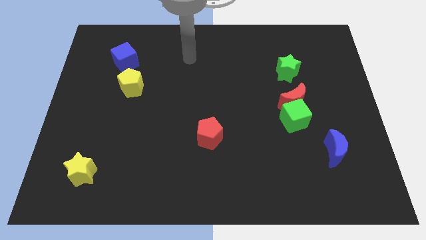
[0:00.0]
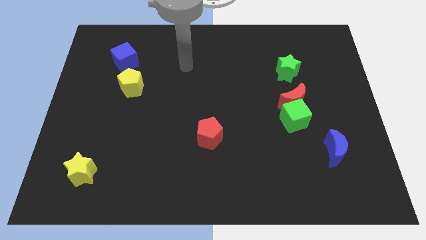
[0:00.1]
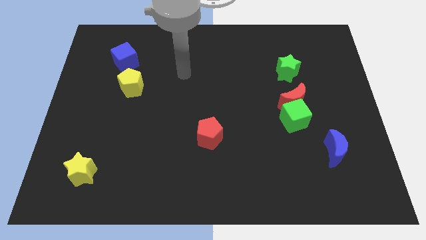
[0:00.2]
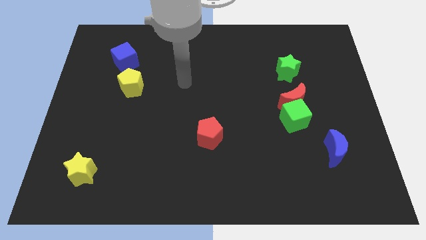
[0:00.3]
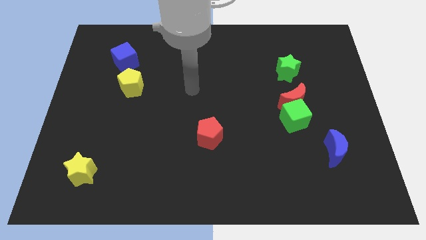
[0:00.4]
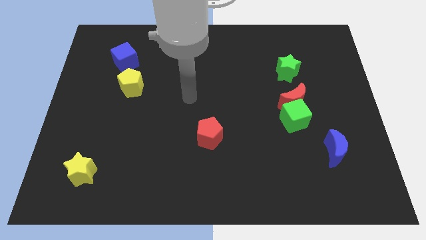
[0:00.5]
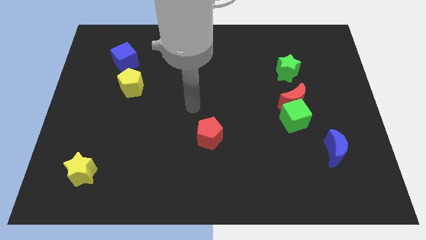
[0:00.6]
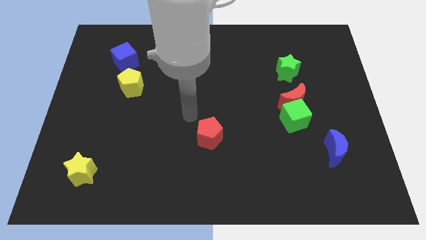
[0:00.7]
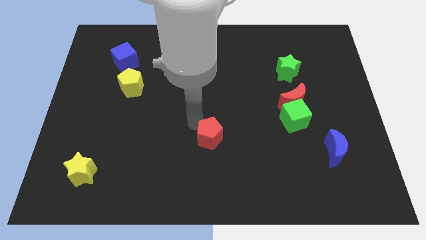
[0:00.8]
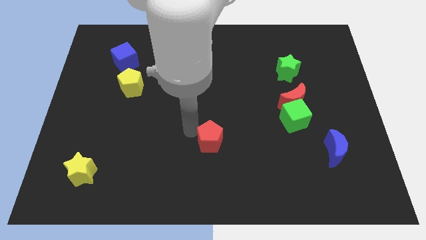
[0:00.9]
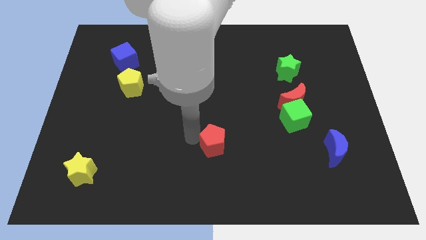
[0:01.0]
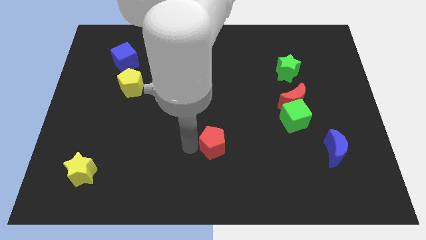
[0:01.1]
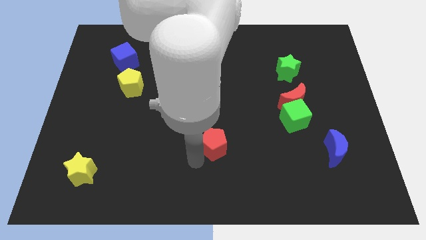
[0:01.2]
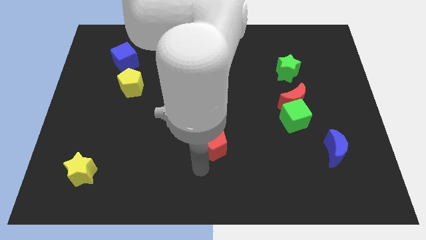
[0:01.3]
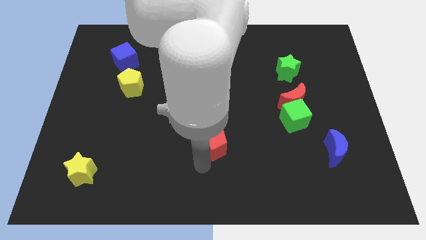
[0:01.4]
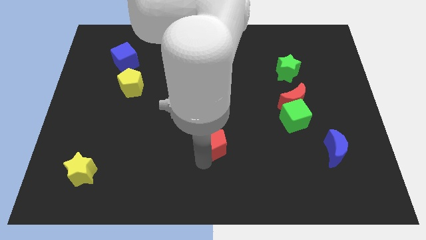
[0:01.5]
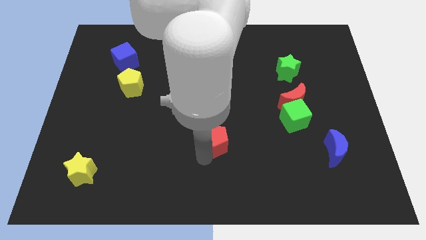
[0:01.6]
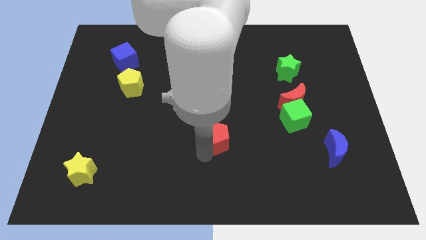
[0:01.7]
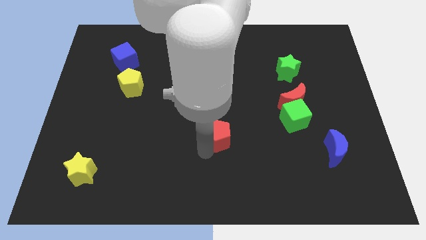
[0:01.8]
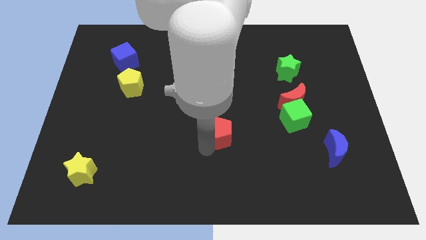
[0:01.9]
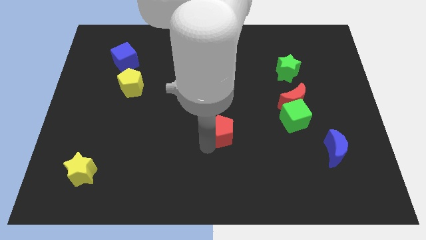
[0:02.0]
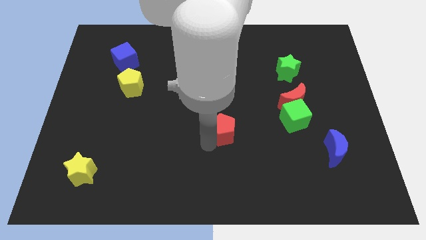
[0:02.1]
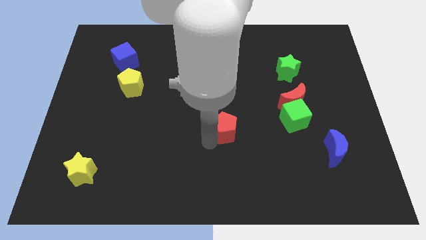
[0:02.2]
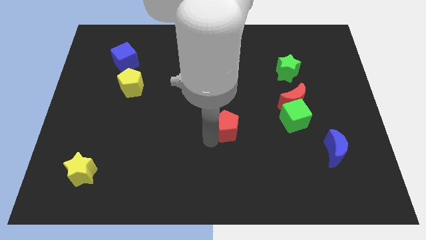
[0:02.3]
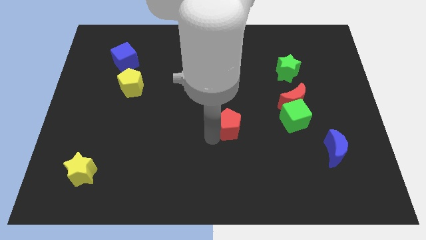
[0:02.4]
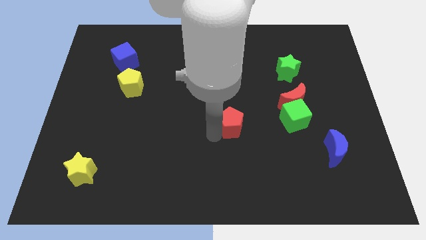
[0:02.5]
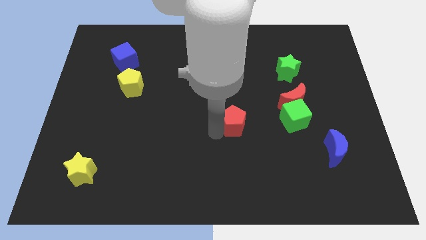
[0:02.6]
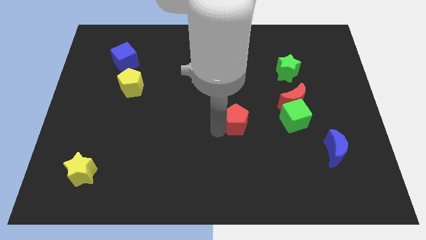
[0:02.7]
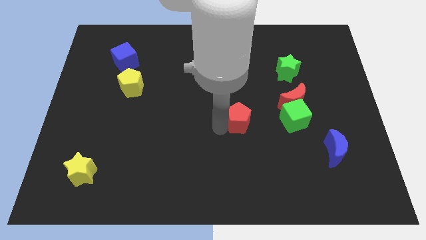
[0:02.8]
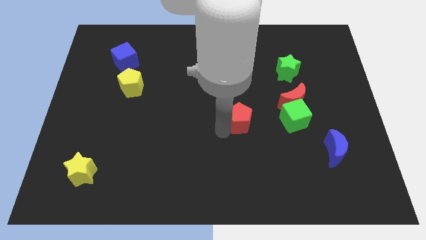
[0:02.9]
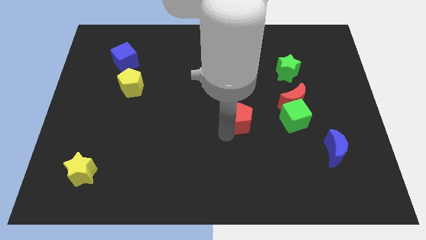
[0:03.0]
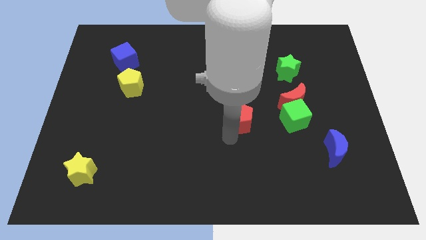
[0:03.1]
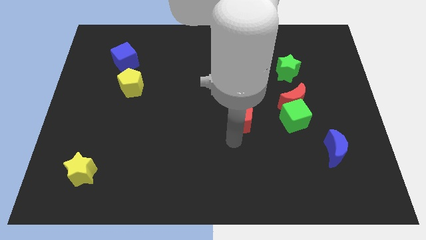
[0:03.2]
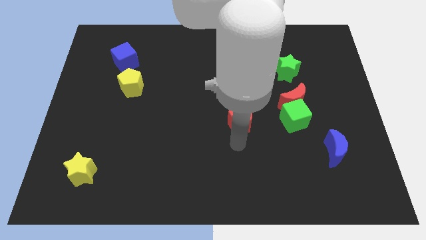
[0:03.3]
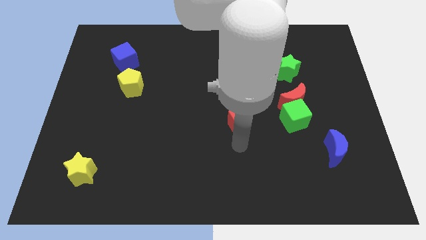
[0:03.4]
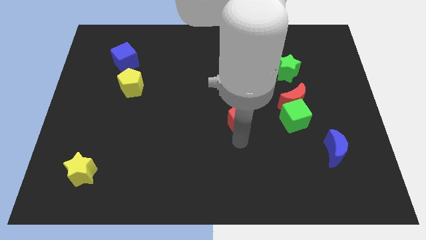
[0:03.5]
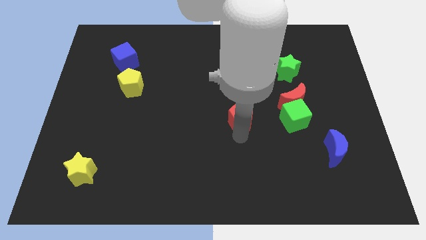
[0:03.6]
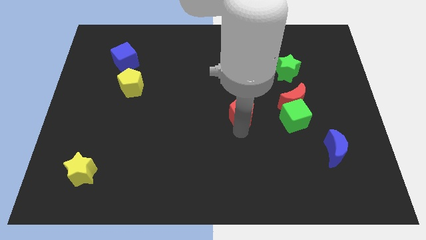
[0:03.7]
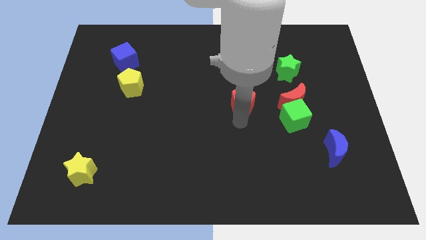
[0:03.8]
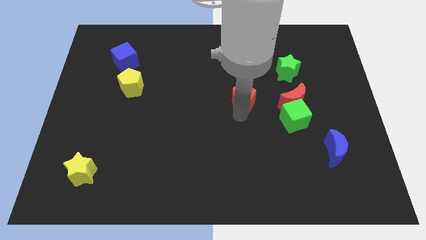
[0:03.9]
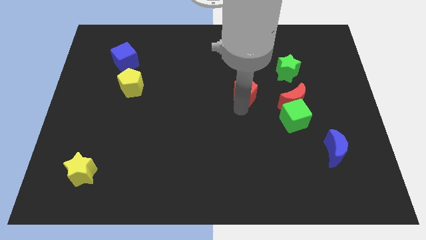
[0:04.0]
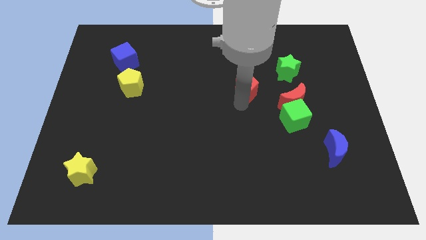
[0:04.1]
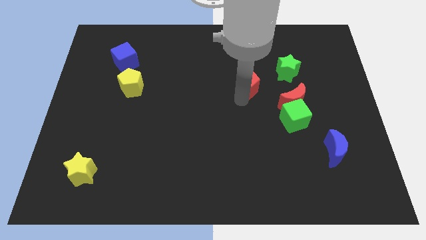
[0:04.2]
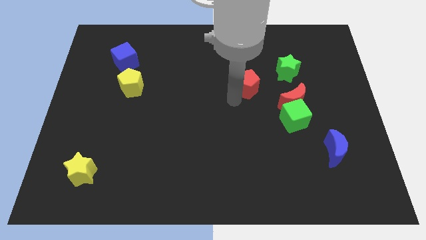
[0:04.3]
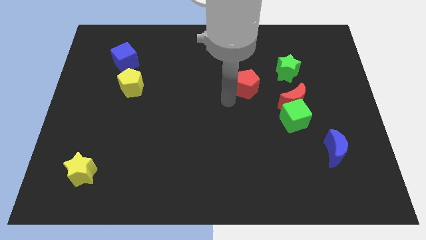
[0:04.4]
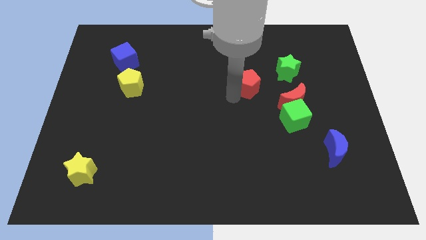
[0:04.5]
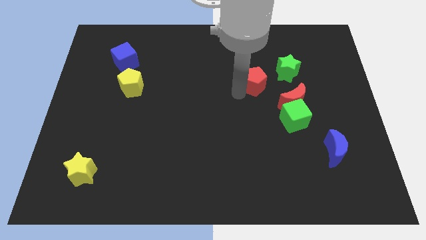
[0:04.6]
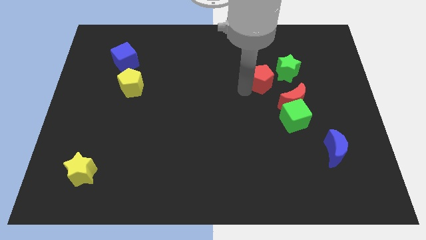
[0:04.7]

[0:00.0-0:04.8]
slide the red pentagon diagonally up and right

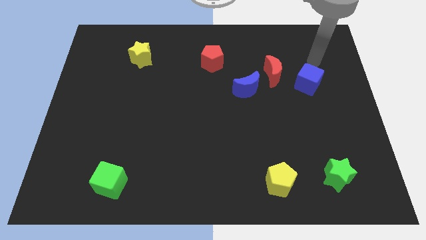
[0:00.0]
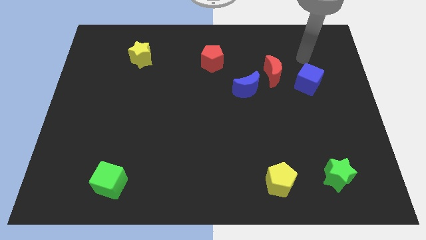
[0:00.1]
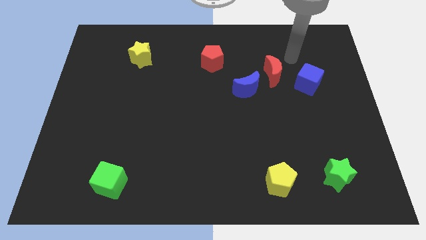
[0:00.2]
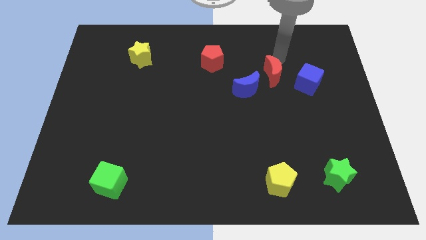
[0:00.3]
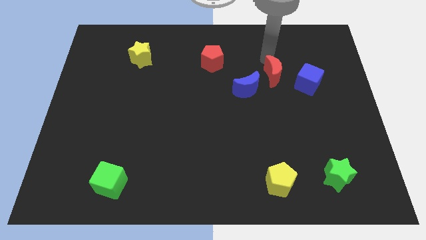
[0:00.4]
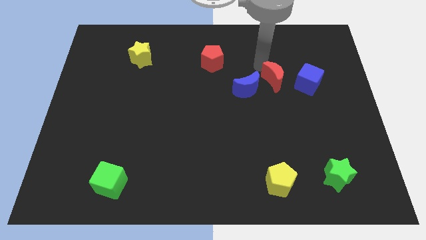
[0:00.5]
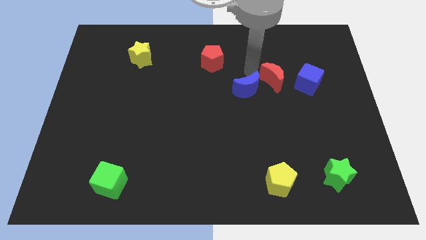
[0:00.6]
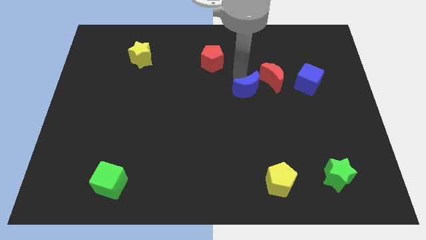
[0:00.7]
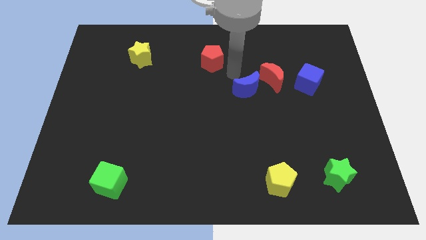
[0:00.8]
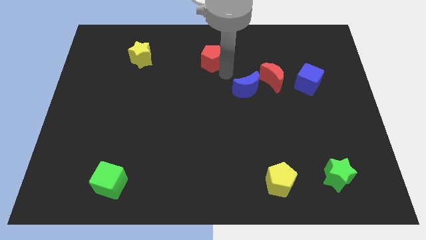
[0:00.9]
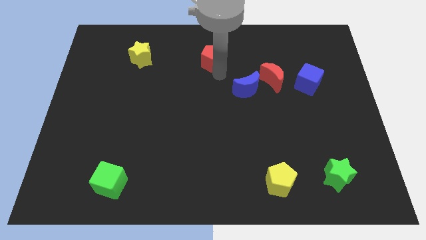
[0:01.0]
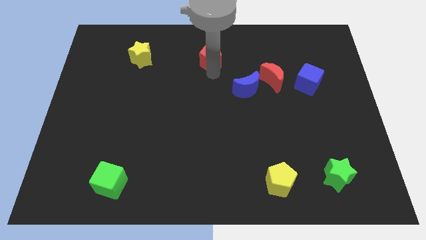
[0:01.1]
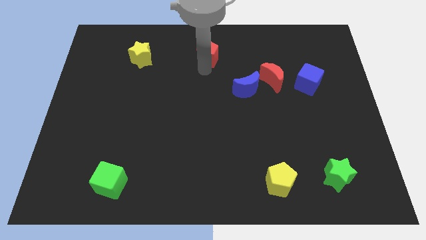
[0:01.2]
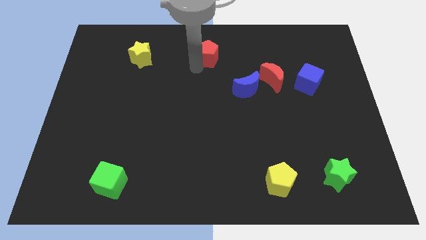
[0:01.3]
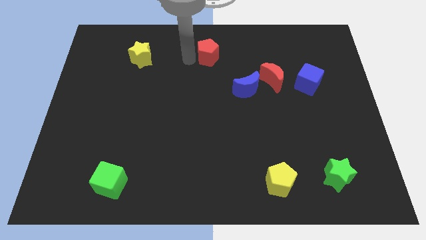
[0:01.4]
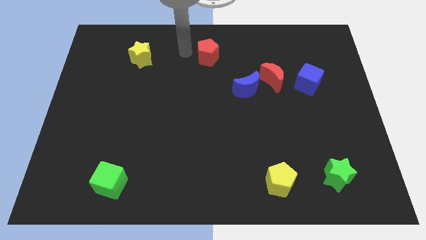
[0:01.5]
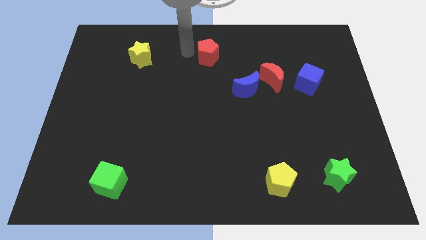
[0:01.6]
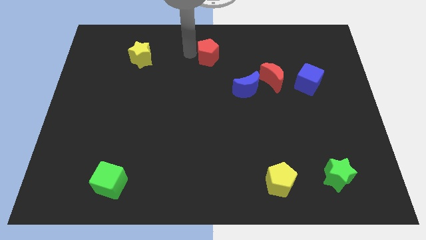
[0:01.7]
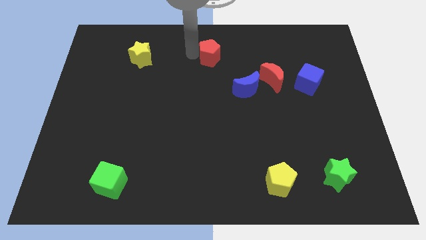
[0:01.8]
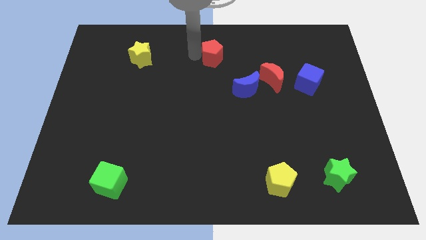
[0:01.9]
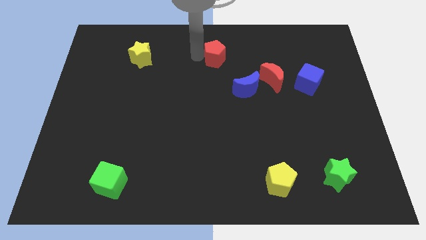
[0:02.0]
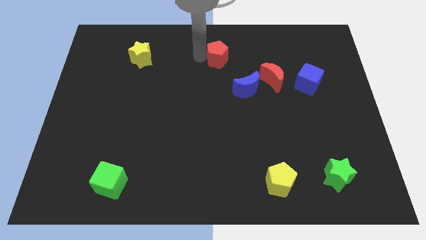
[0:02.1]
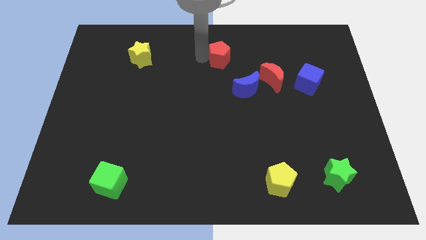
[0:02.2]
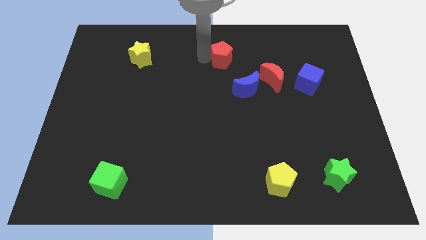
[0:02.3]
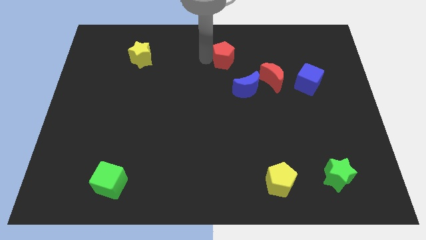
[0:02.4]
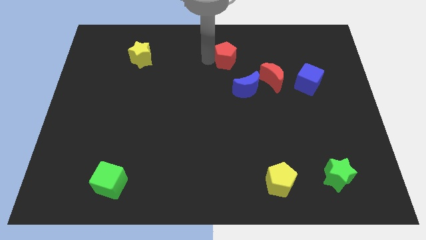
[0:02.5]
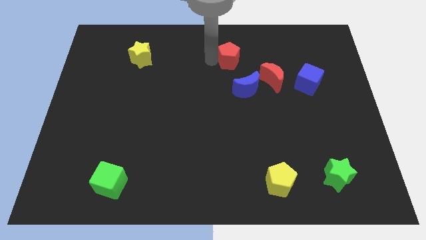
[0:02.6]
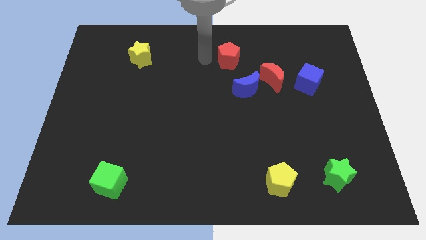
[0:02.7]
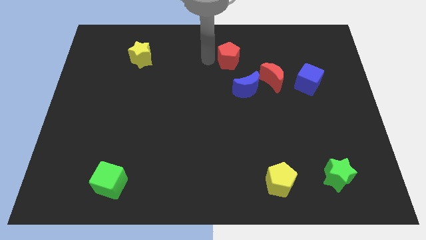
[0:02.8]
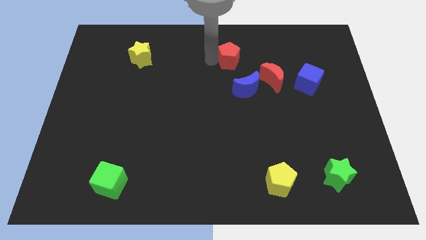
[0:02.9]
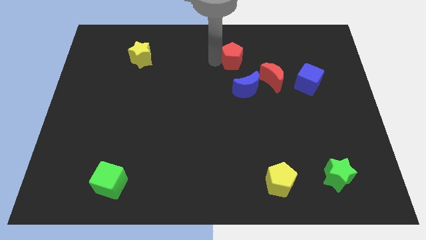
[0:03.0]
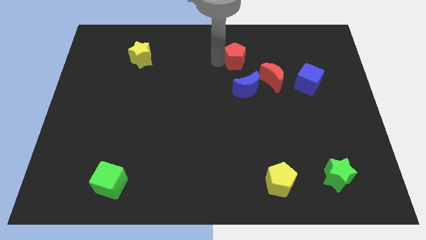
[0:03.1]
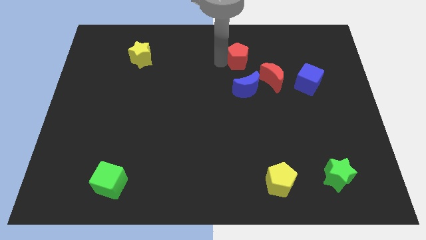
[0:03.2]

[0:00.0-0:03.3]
move the red pentagon a bit to the right
